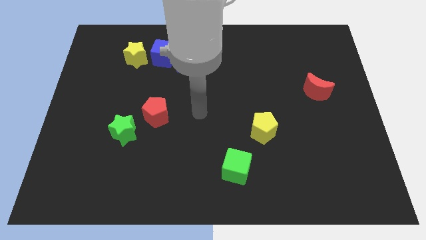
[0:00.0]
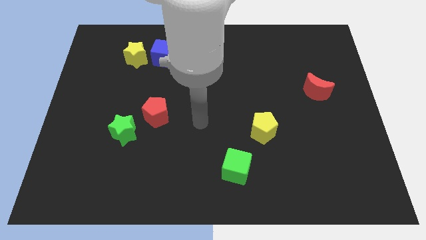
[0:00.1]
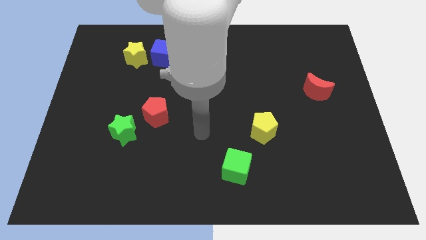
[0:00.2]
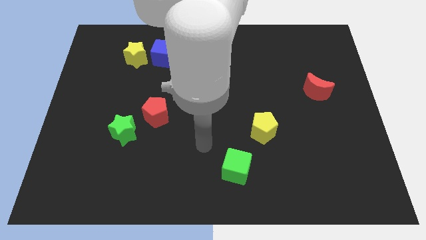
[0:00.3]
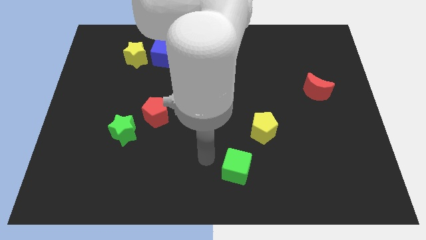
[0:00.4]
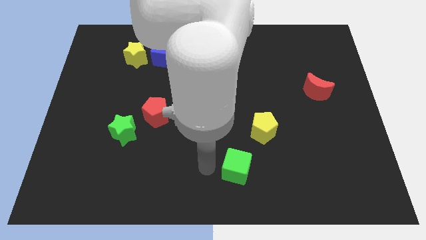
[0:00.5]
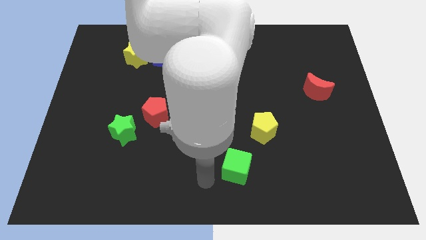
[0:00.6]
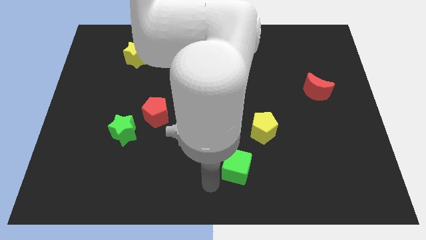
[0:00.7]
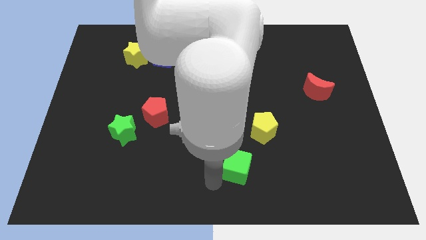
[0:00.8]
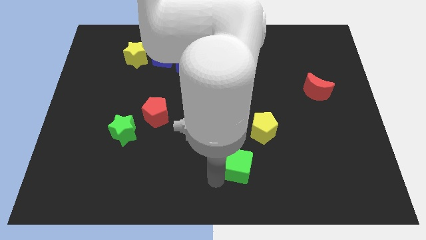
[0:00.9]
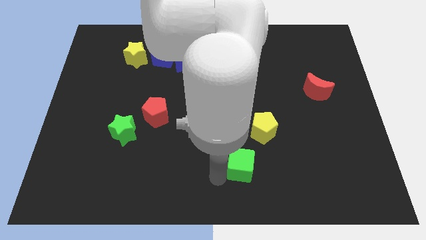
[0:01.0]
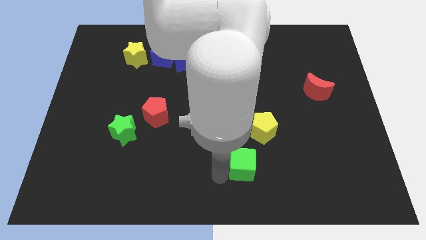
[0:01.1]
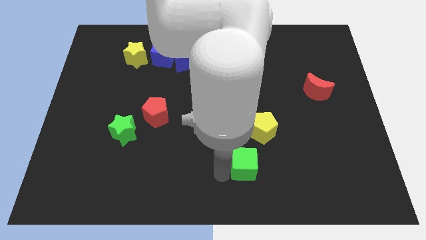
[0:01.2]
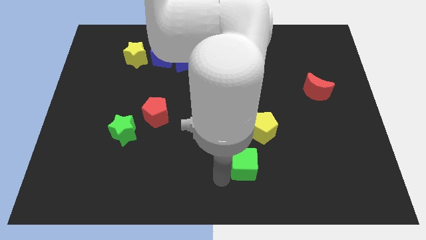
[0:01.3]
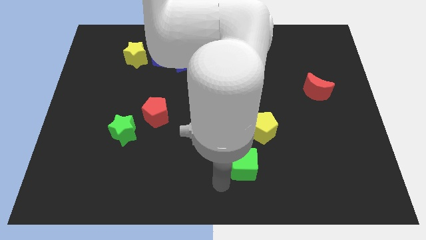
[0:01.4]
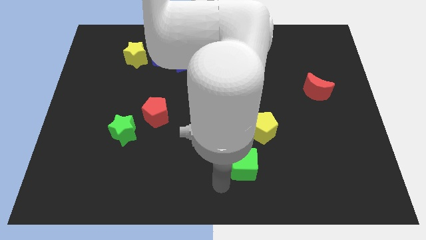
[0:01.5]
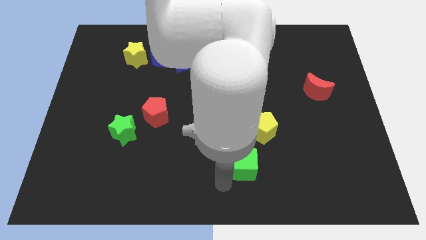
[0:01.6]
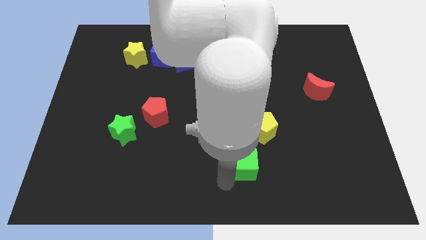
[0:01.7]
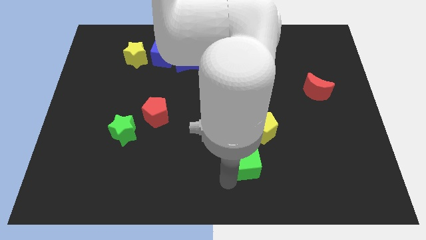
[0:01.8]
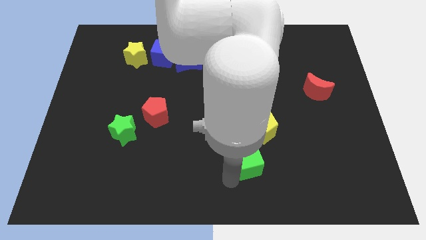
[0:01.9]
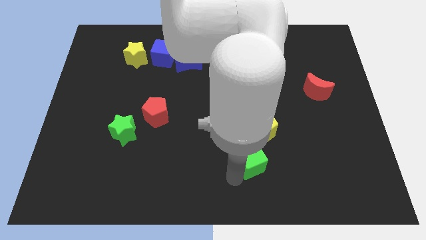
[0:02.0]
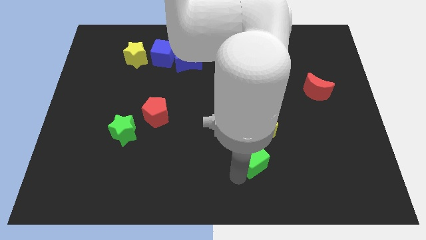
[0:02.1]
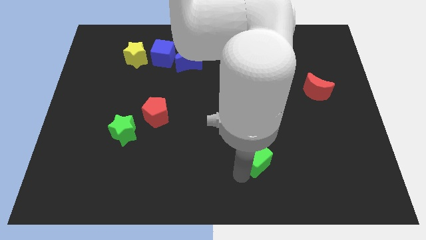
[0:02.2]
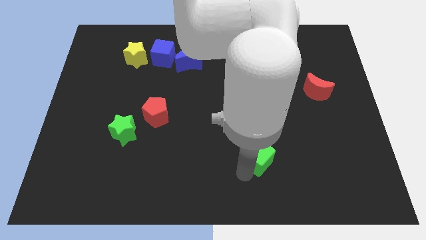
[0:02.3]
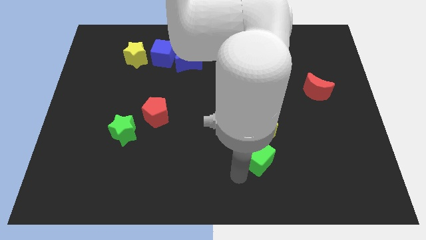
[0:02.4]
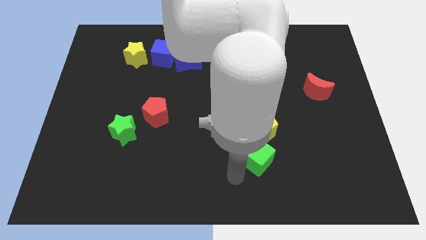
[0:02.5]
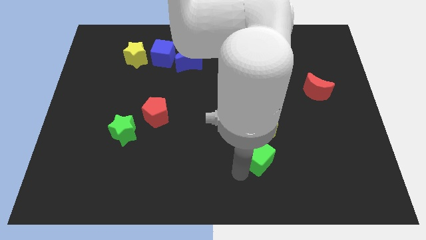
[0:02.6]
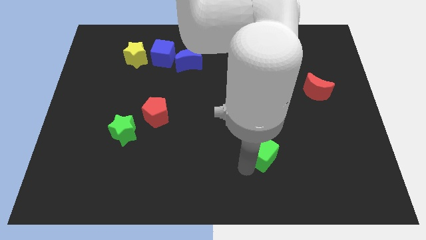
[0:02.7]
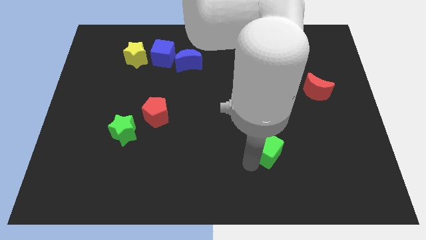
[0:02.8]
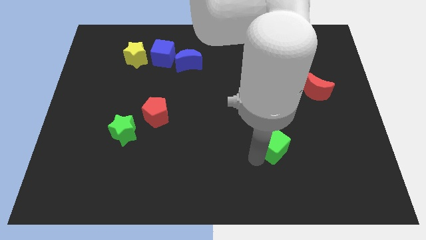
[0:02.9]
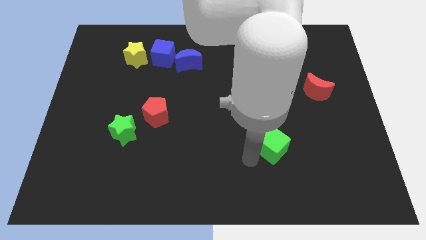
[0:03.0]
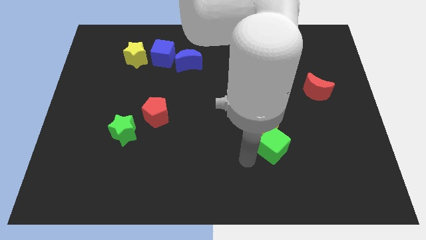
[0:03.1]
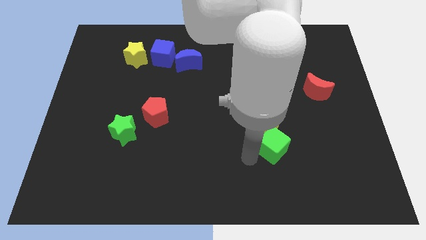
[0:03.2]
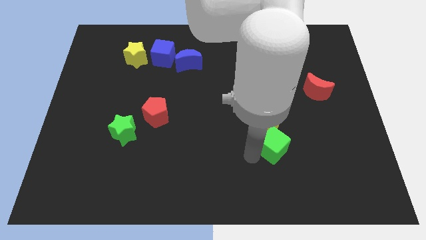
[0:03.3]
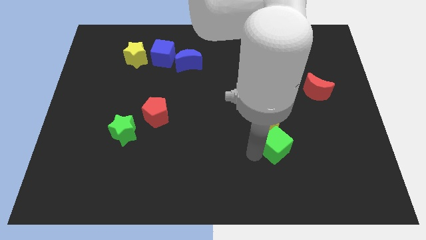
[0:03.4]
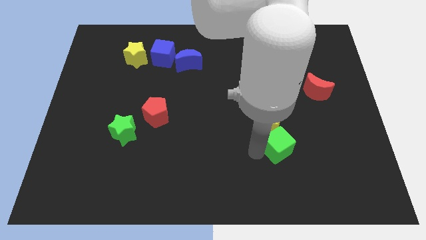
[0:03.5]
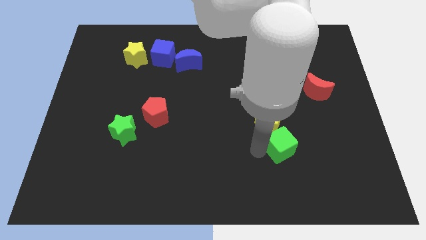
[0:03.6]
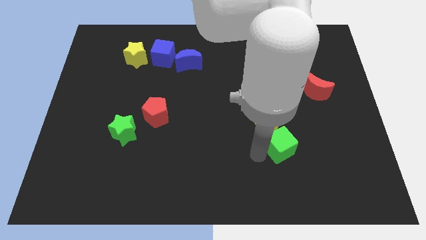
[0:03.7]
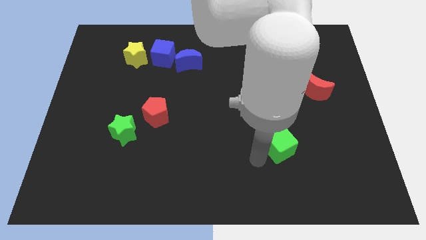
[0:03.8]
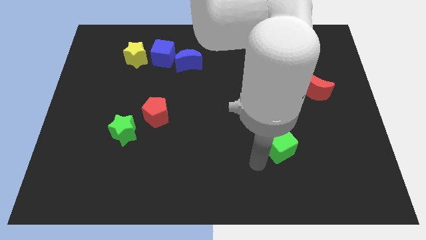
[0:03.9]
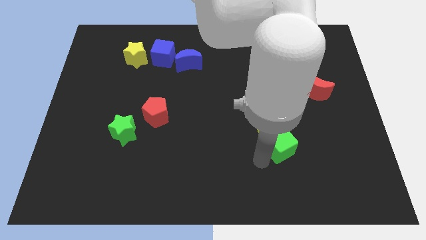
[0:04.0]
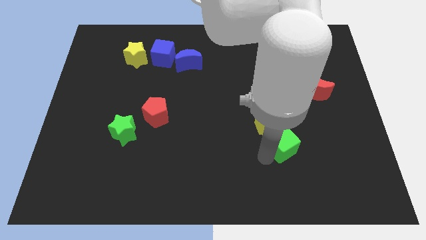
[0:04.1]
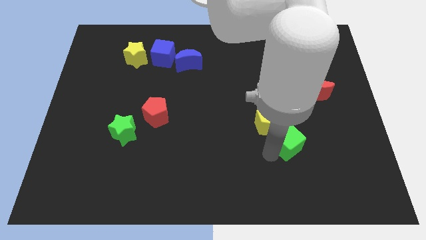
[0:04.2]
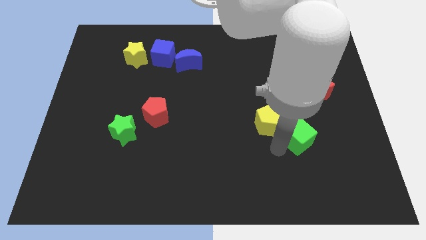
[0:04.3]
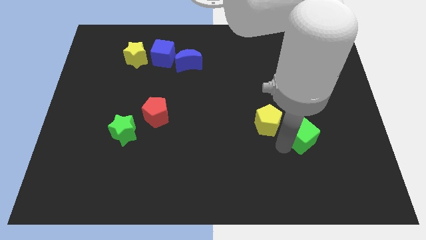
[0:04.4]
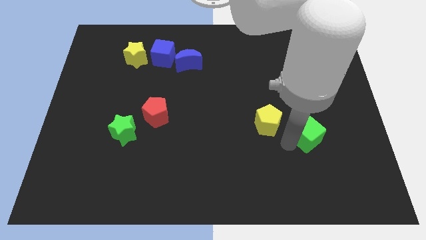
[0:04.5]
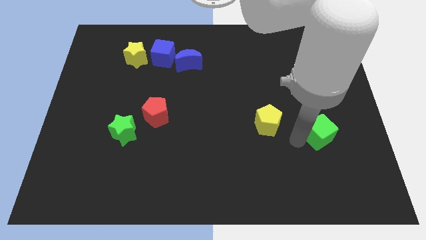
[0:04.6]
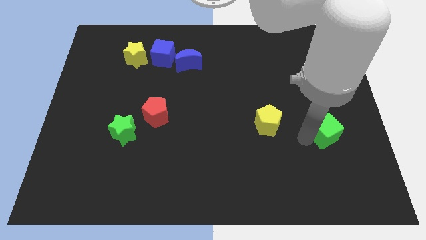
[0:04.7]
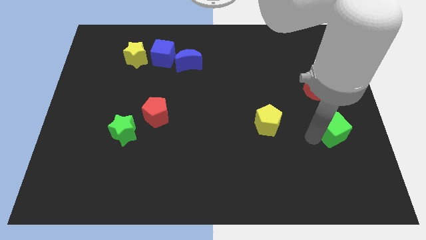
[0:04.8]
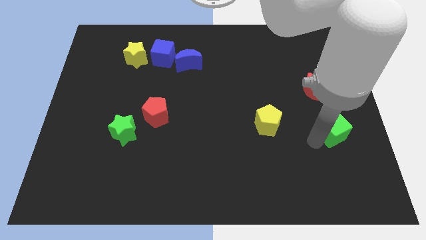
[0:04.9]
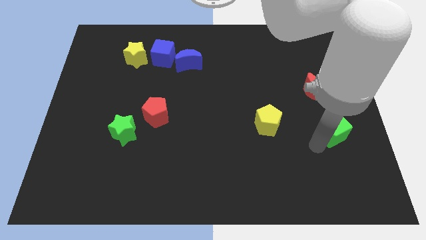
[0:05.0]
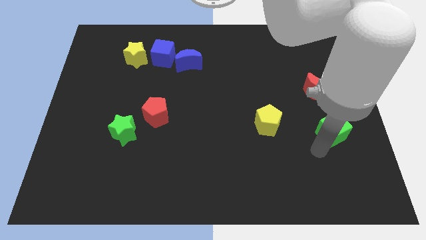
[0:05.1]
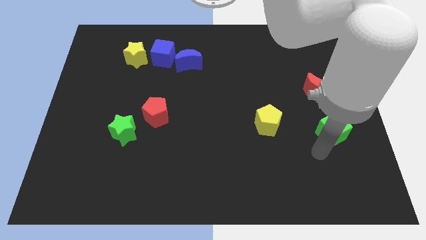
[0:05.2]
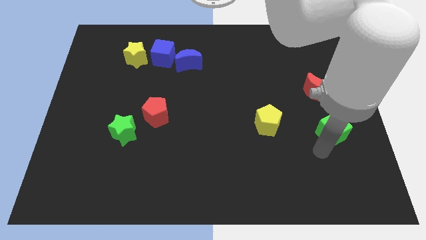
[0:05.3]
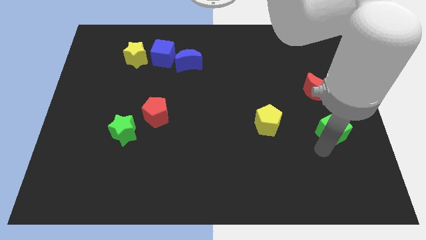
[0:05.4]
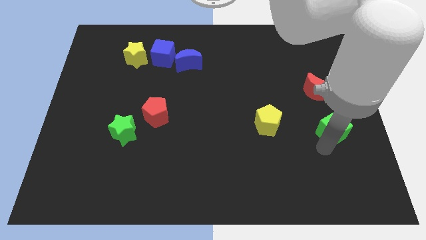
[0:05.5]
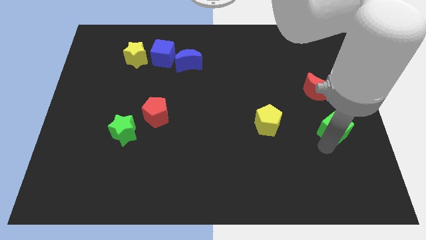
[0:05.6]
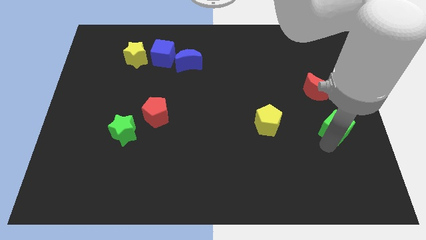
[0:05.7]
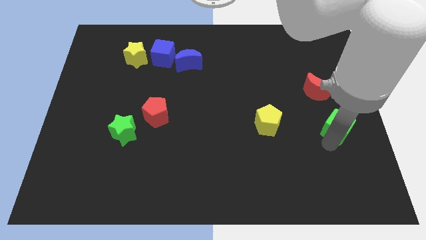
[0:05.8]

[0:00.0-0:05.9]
push the green cube to the right side of the board

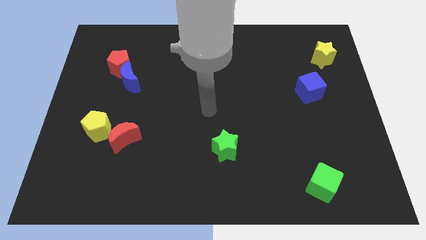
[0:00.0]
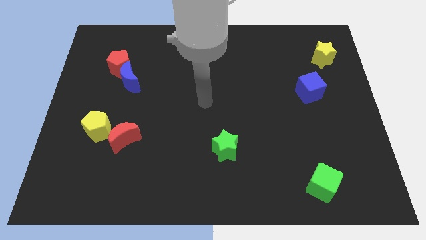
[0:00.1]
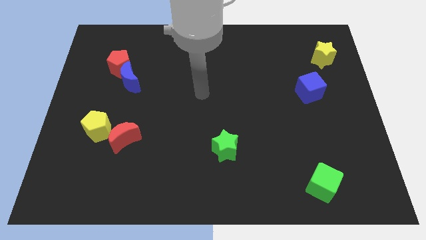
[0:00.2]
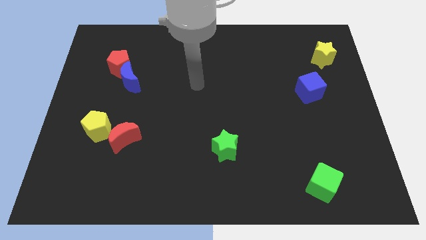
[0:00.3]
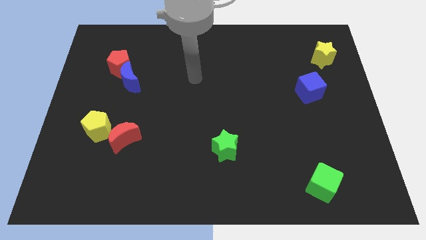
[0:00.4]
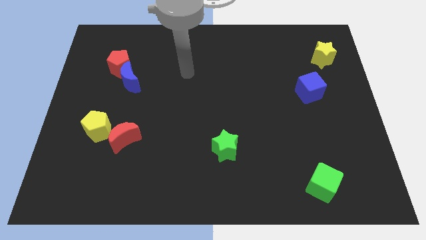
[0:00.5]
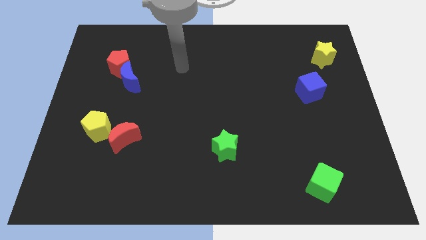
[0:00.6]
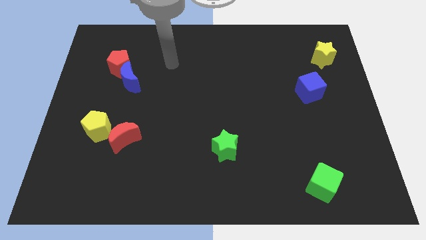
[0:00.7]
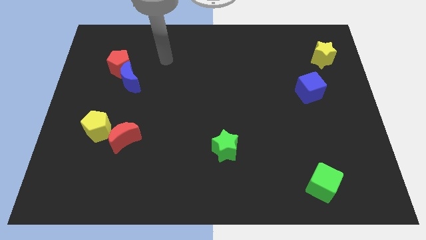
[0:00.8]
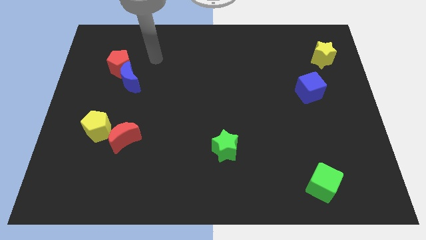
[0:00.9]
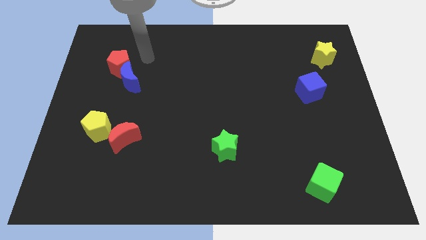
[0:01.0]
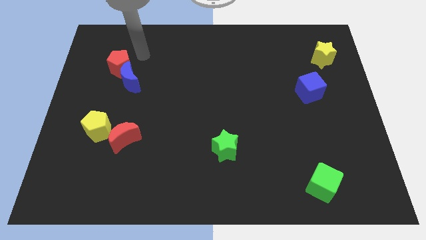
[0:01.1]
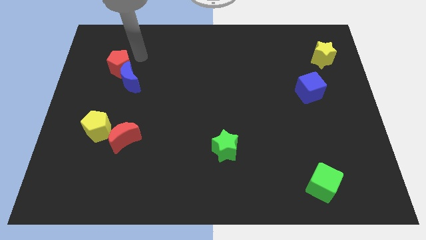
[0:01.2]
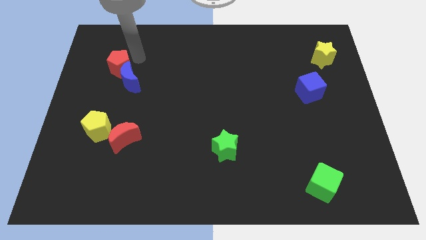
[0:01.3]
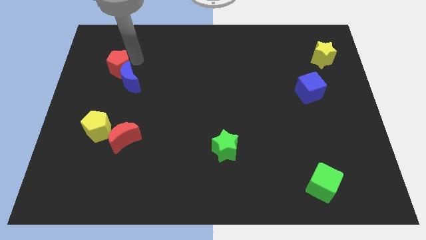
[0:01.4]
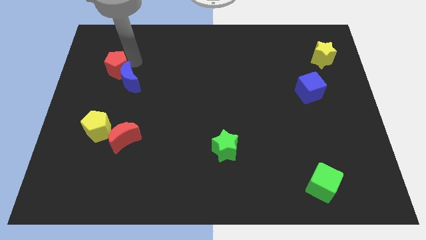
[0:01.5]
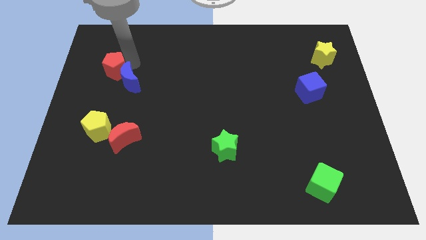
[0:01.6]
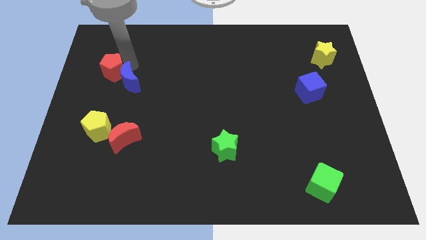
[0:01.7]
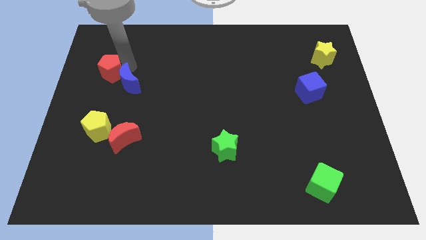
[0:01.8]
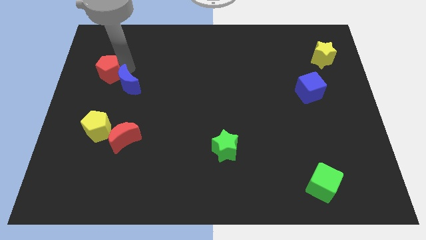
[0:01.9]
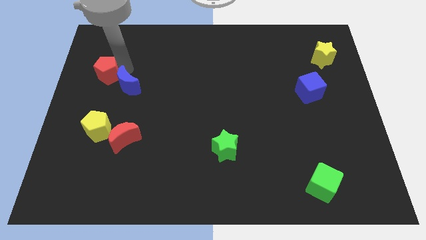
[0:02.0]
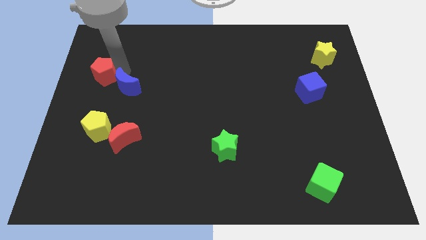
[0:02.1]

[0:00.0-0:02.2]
put the red pentagon to the left side of the board
